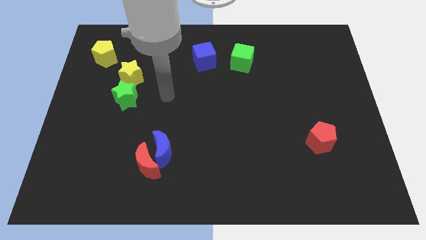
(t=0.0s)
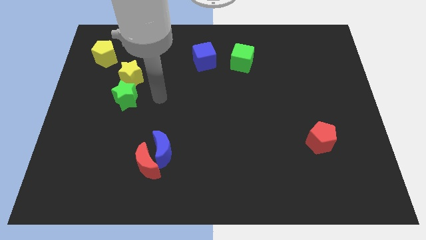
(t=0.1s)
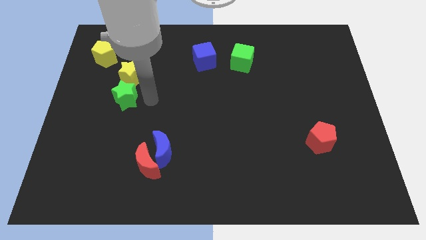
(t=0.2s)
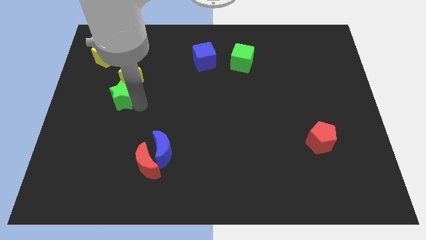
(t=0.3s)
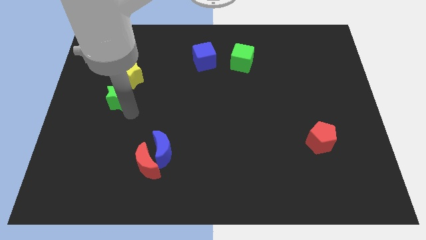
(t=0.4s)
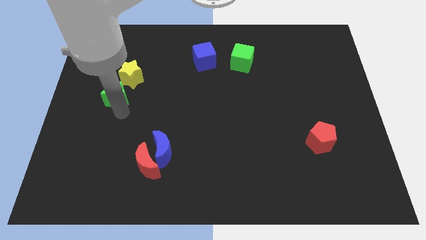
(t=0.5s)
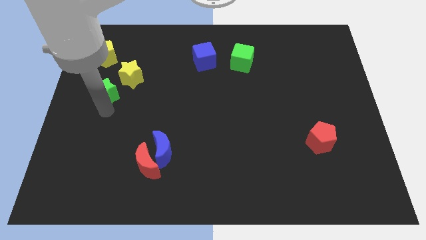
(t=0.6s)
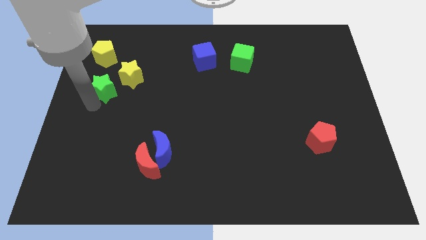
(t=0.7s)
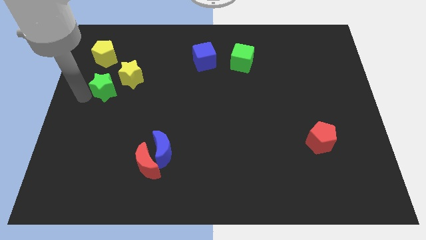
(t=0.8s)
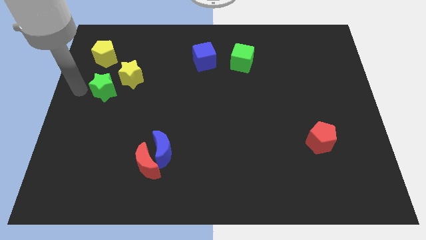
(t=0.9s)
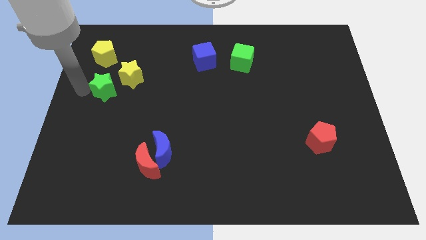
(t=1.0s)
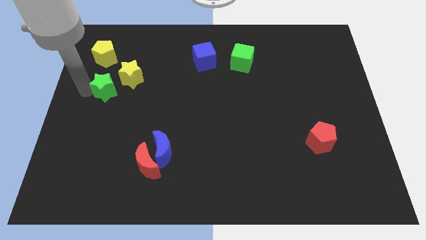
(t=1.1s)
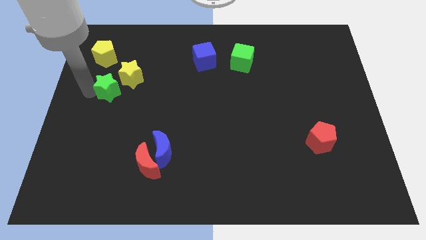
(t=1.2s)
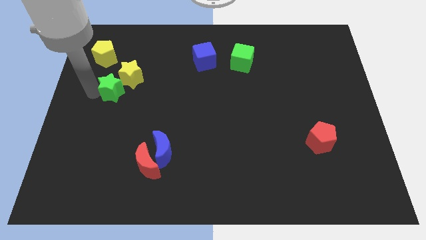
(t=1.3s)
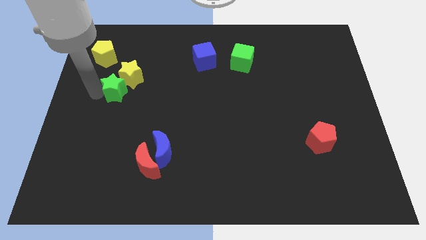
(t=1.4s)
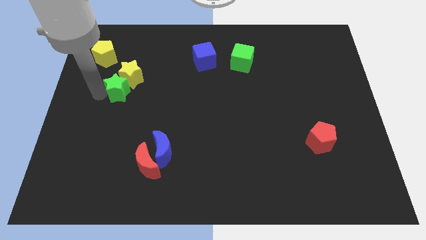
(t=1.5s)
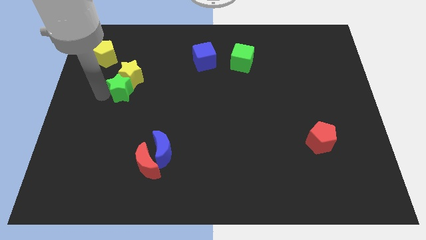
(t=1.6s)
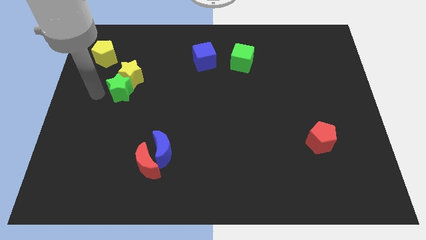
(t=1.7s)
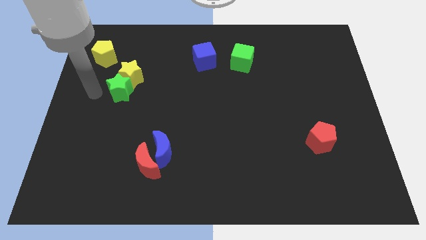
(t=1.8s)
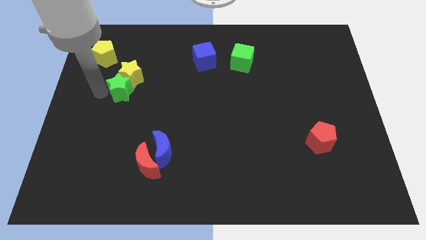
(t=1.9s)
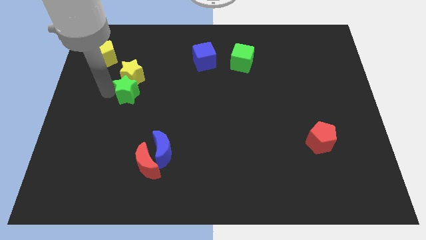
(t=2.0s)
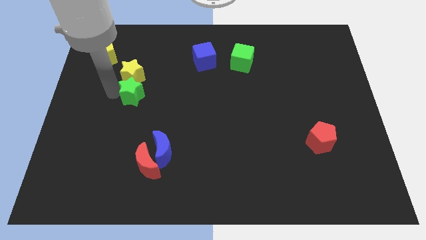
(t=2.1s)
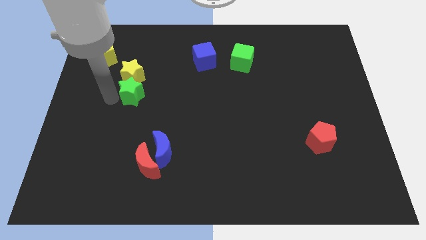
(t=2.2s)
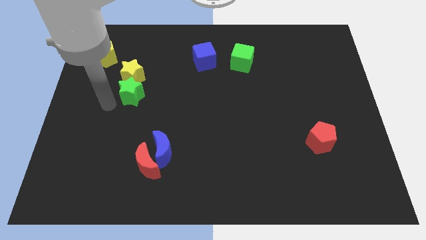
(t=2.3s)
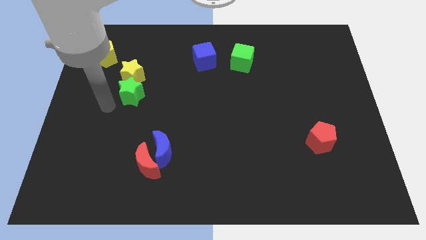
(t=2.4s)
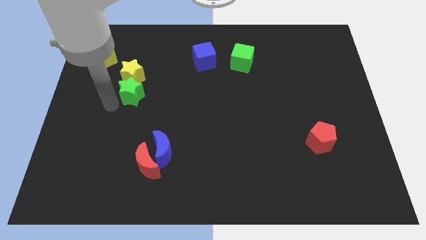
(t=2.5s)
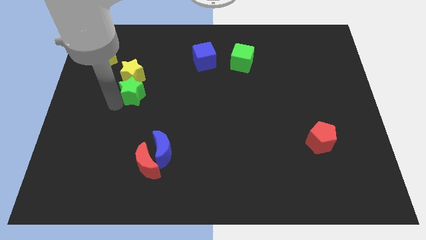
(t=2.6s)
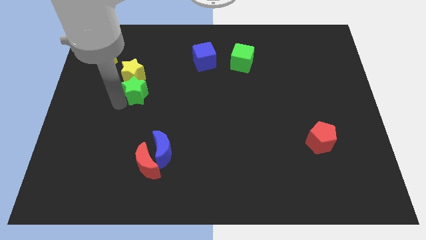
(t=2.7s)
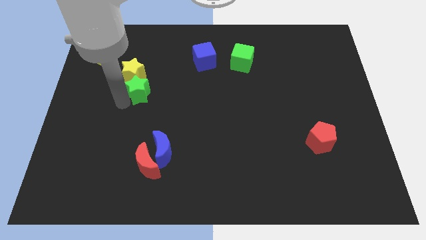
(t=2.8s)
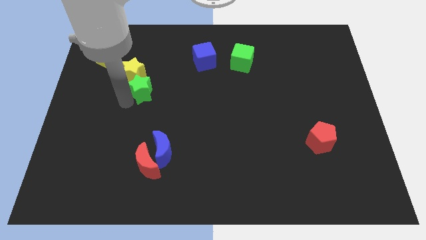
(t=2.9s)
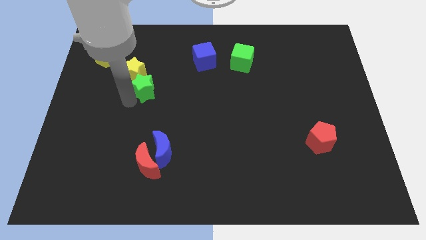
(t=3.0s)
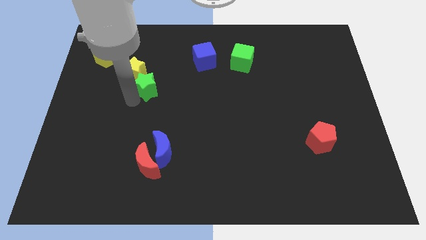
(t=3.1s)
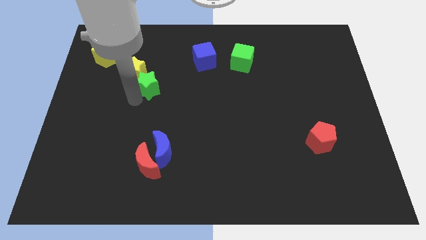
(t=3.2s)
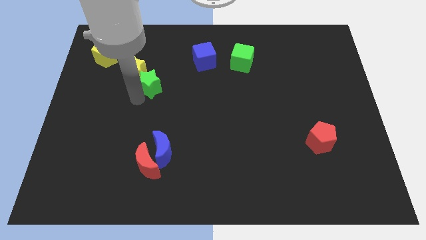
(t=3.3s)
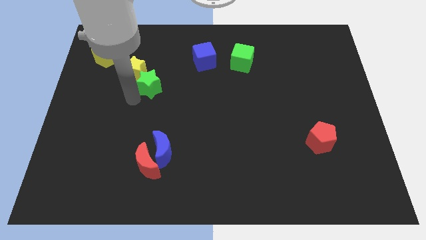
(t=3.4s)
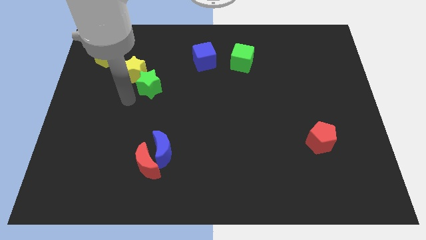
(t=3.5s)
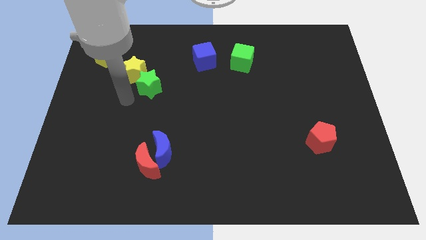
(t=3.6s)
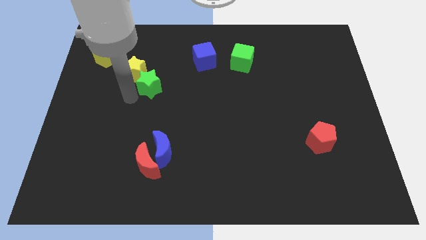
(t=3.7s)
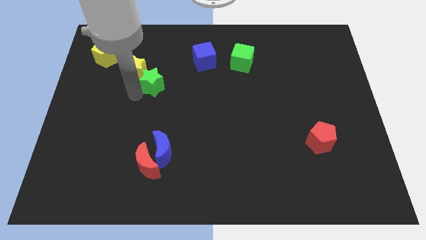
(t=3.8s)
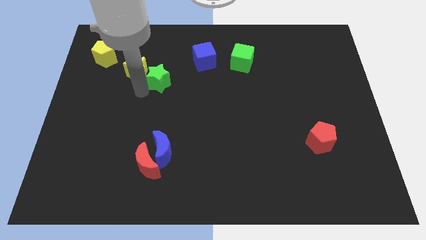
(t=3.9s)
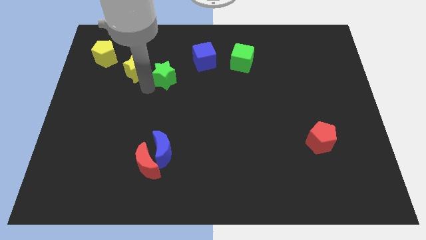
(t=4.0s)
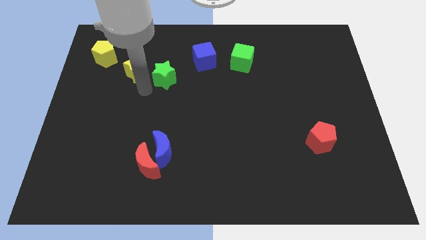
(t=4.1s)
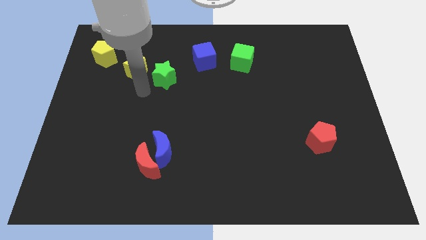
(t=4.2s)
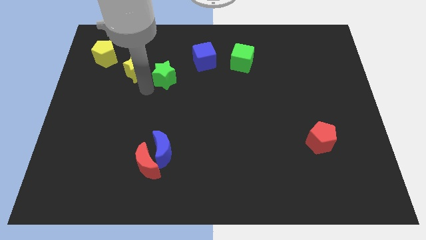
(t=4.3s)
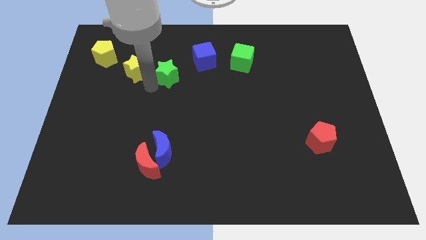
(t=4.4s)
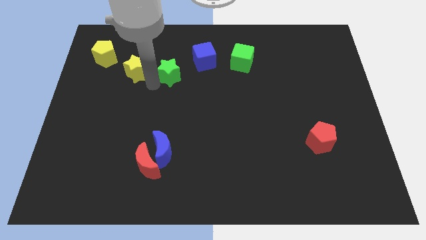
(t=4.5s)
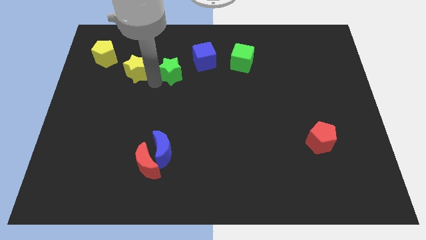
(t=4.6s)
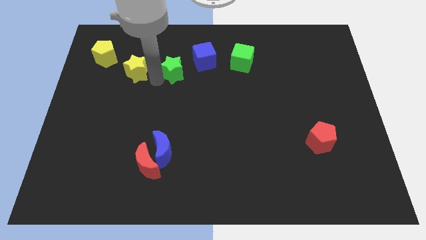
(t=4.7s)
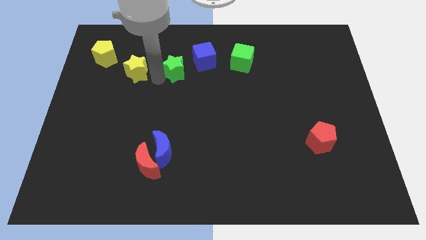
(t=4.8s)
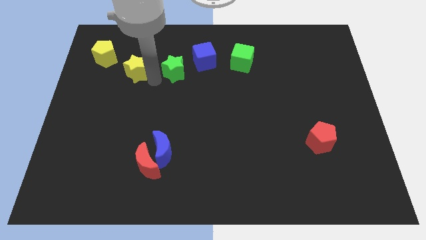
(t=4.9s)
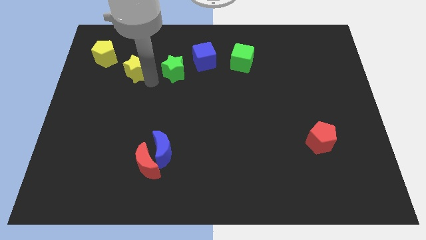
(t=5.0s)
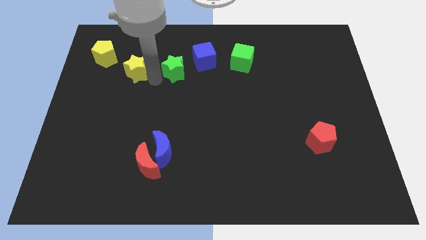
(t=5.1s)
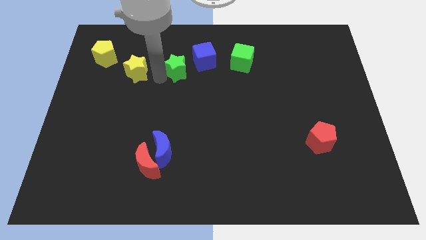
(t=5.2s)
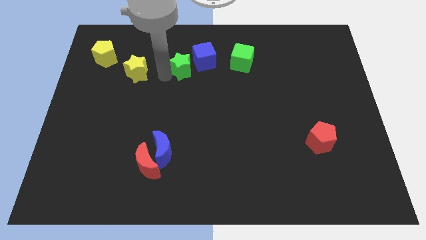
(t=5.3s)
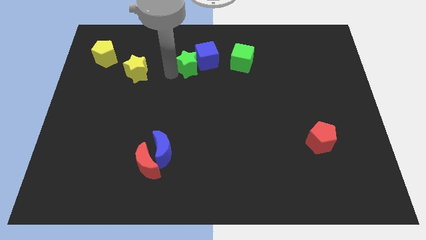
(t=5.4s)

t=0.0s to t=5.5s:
slide the green star close to the blue cube

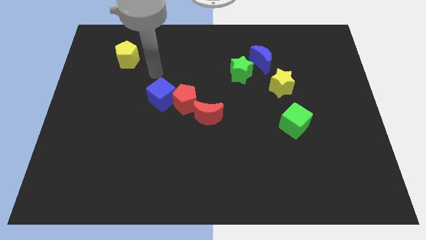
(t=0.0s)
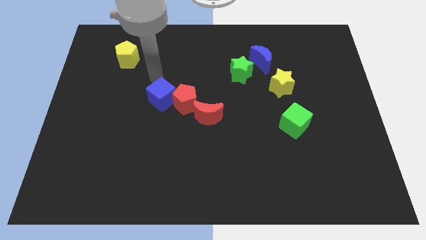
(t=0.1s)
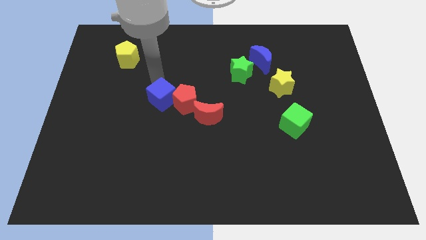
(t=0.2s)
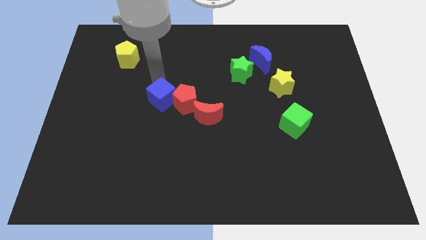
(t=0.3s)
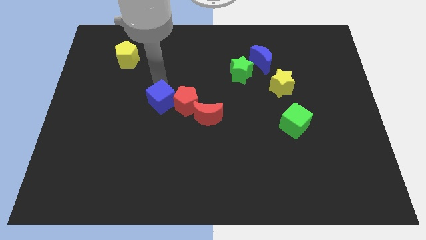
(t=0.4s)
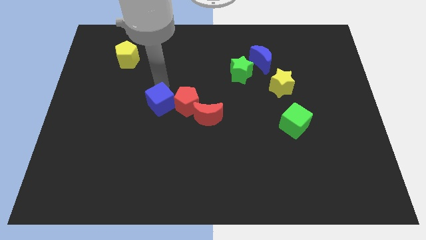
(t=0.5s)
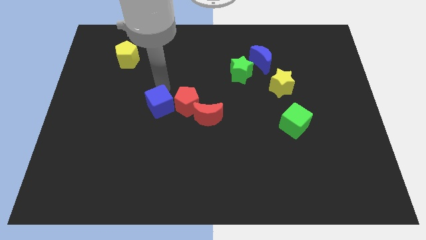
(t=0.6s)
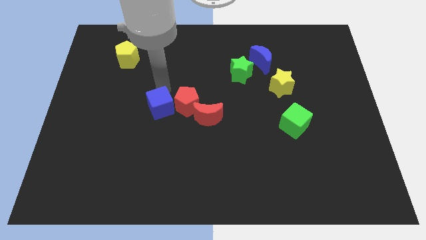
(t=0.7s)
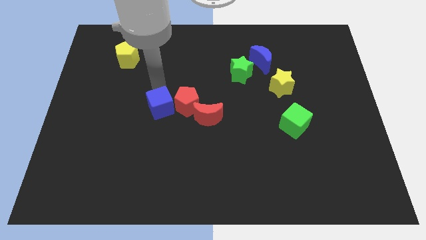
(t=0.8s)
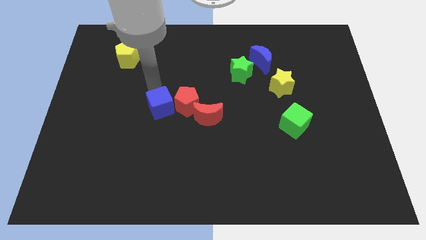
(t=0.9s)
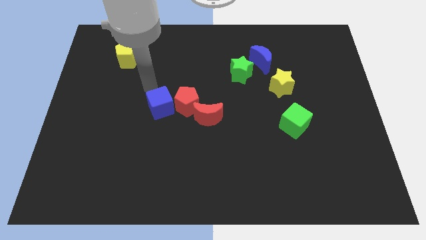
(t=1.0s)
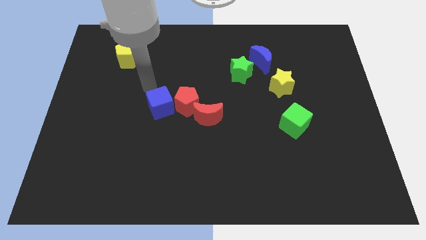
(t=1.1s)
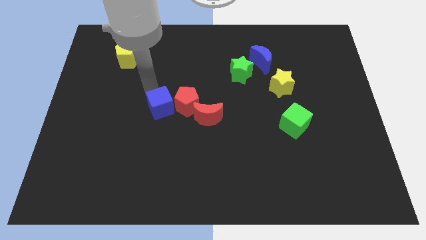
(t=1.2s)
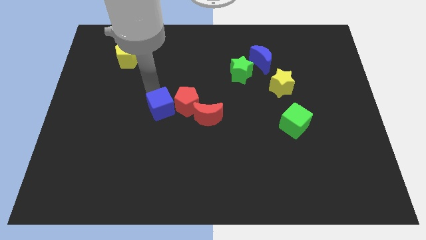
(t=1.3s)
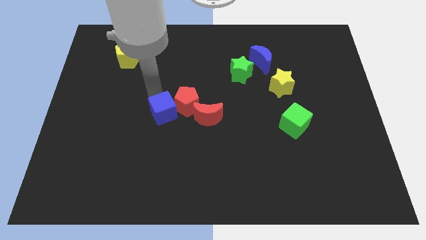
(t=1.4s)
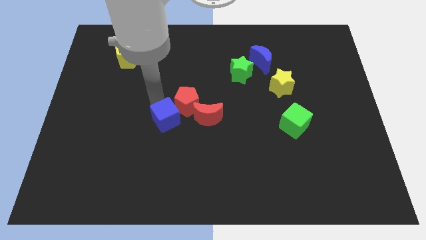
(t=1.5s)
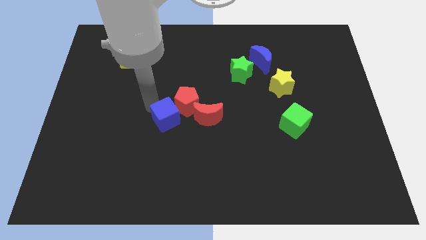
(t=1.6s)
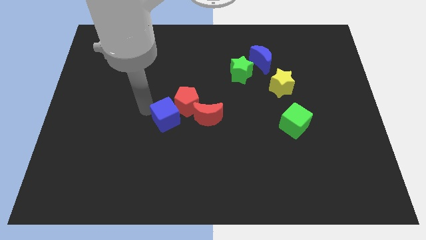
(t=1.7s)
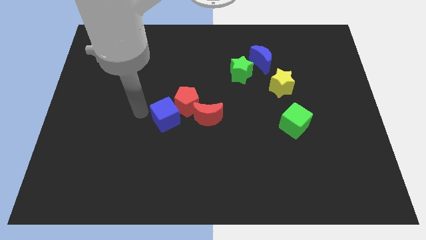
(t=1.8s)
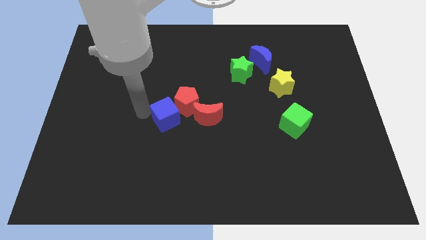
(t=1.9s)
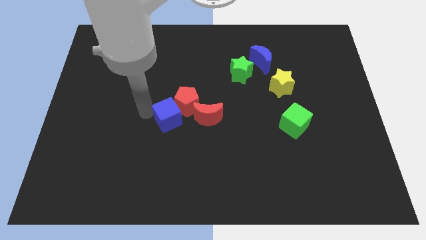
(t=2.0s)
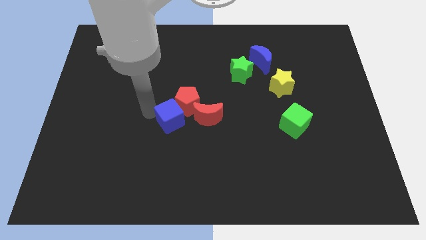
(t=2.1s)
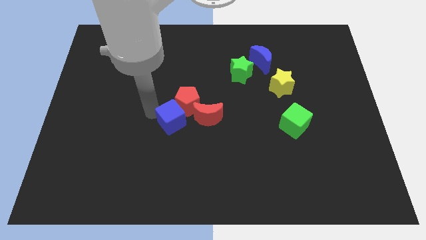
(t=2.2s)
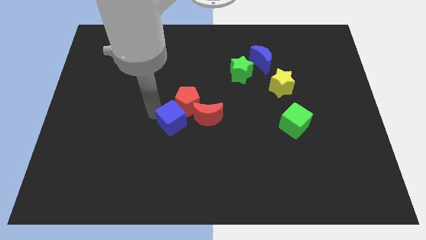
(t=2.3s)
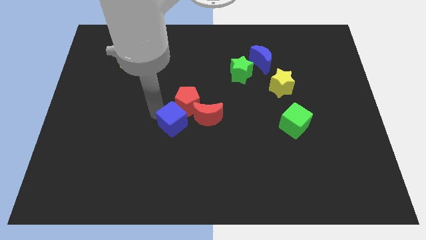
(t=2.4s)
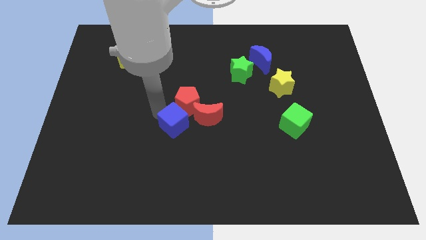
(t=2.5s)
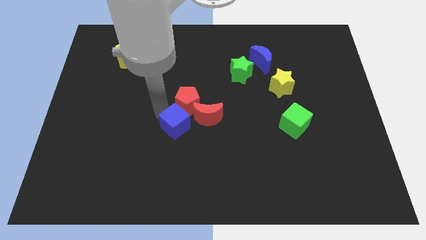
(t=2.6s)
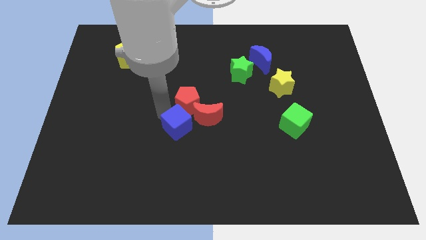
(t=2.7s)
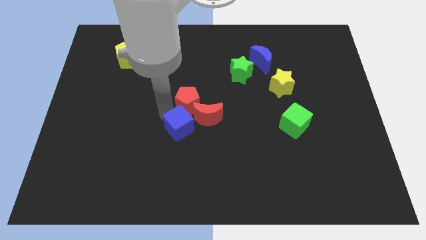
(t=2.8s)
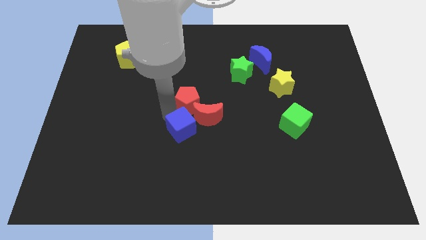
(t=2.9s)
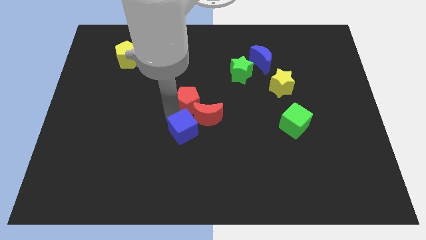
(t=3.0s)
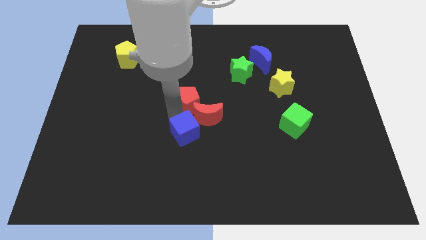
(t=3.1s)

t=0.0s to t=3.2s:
put the blue cube close to the red moon
